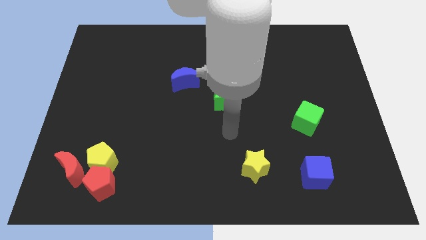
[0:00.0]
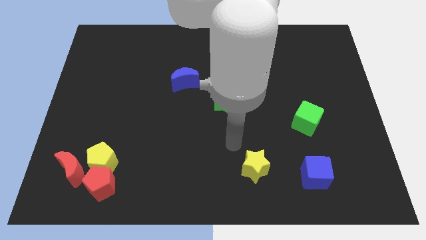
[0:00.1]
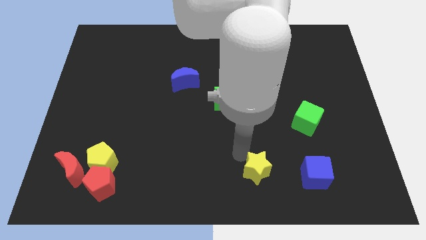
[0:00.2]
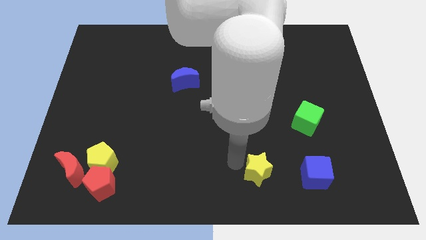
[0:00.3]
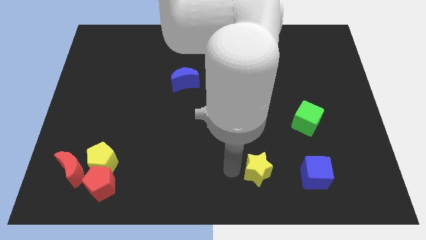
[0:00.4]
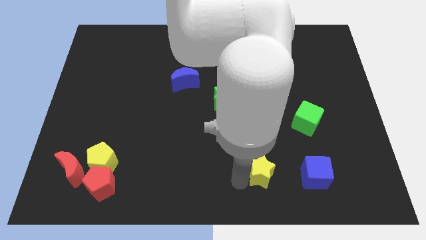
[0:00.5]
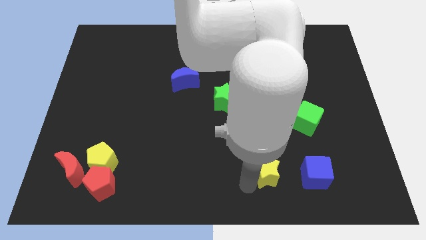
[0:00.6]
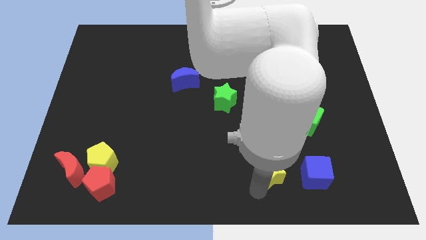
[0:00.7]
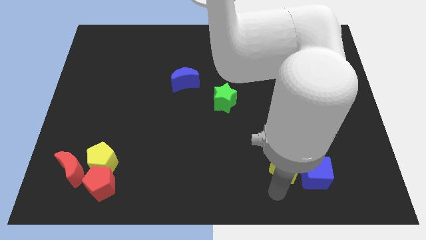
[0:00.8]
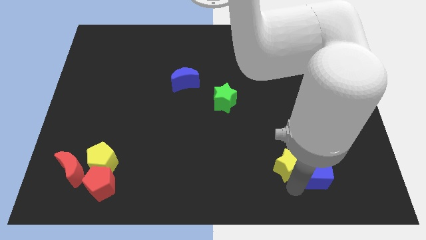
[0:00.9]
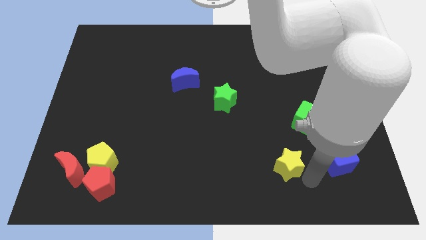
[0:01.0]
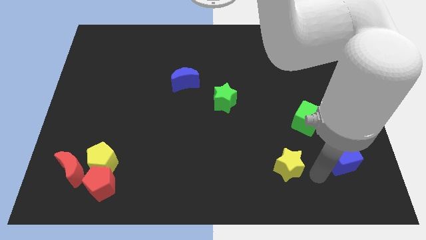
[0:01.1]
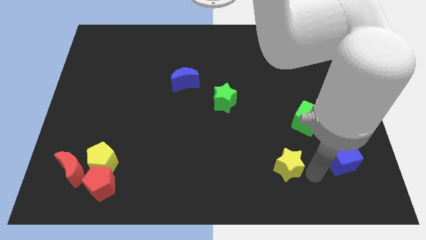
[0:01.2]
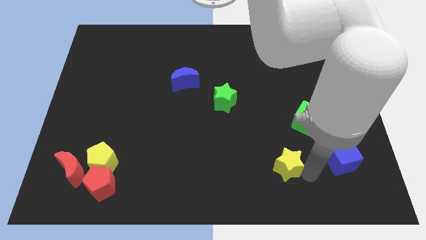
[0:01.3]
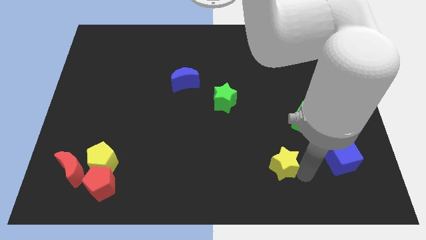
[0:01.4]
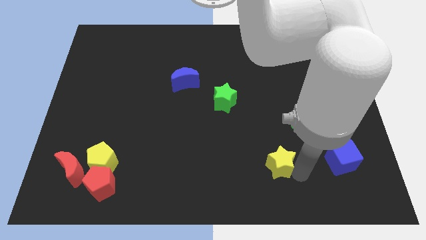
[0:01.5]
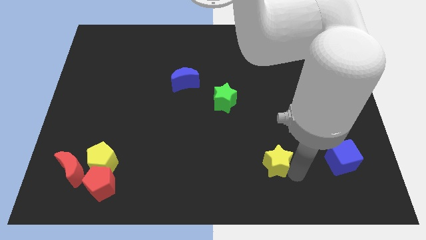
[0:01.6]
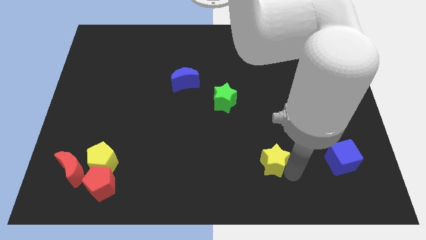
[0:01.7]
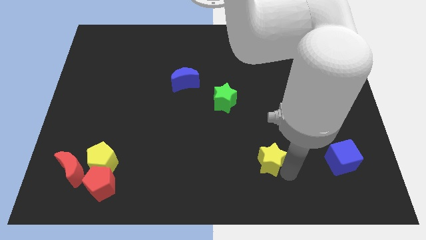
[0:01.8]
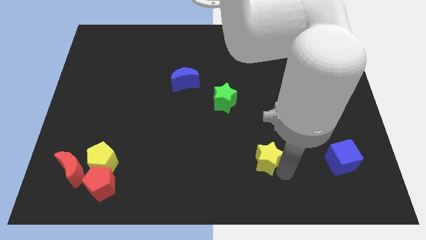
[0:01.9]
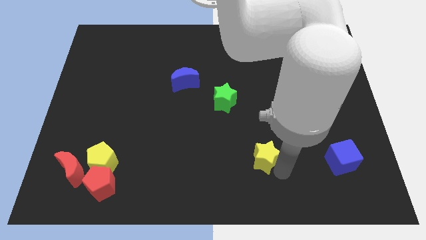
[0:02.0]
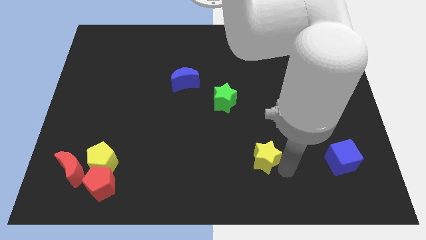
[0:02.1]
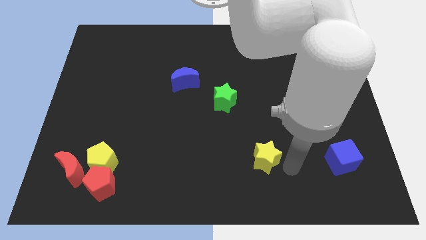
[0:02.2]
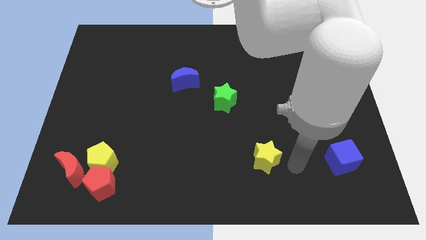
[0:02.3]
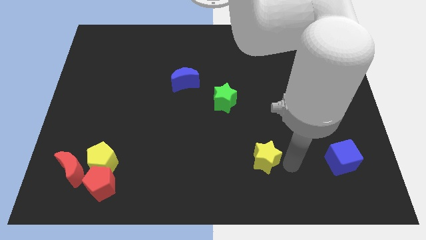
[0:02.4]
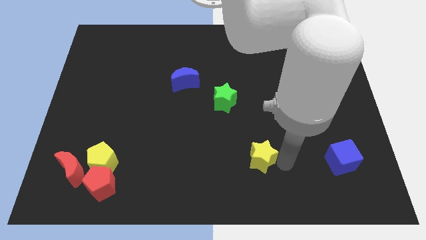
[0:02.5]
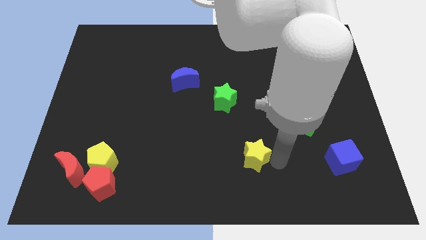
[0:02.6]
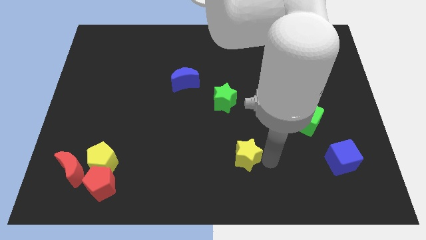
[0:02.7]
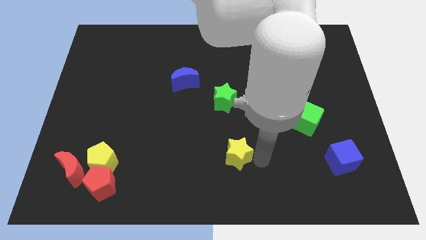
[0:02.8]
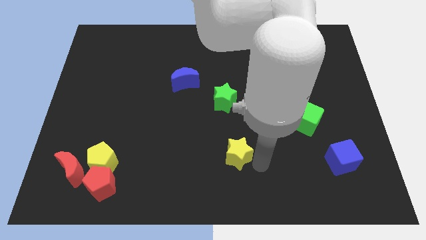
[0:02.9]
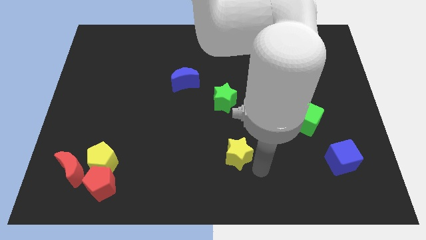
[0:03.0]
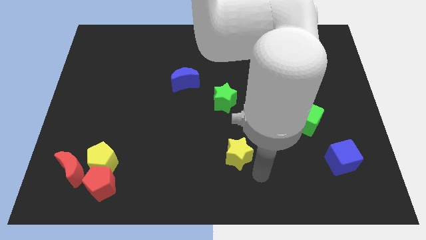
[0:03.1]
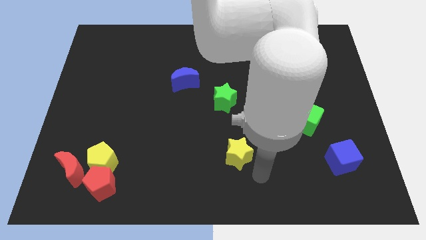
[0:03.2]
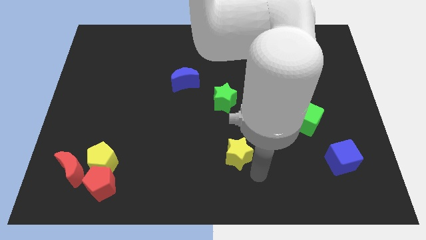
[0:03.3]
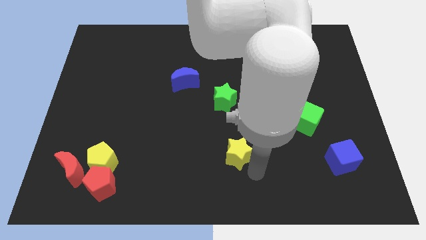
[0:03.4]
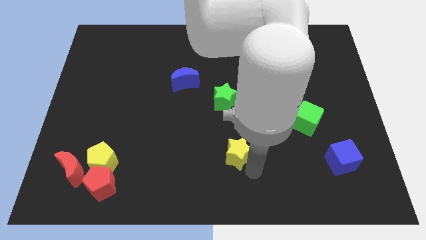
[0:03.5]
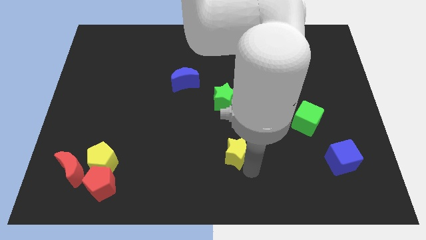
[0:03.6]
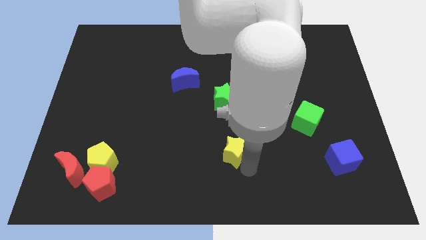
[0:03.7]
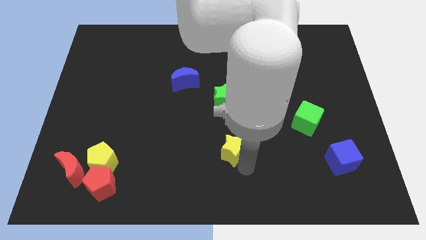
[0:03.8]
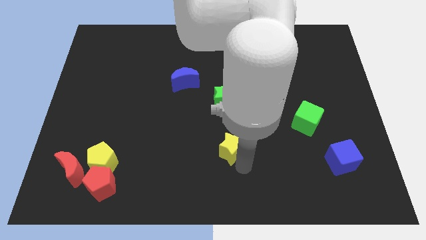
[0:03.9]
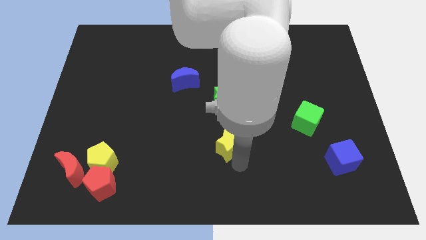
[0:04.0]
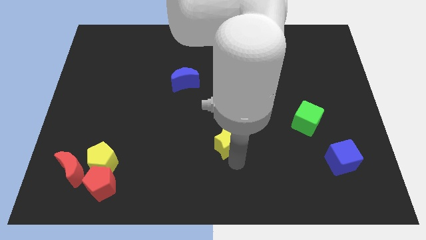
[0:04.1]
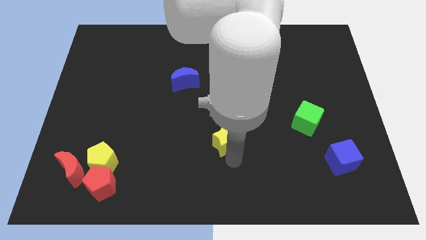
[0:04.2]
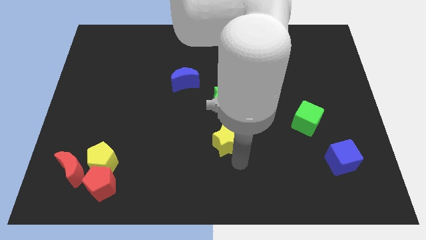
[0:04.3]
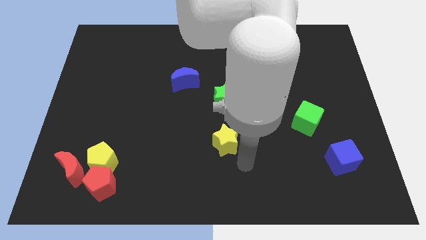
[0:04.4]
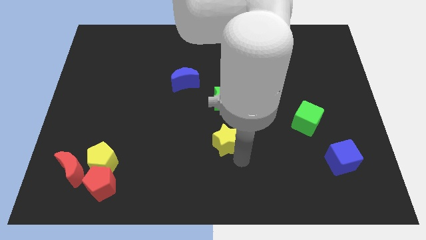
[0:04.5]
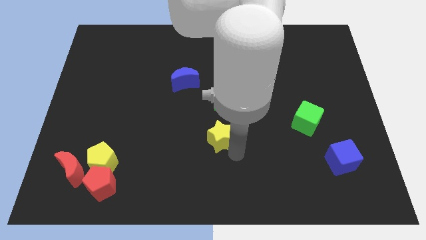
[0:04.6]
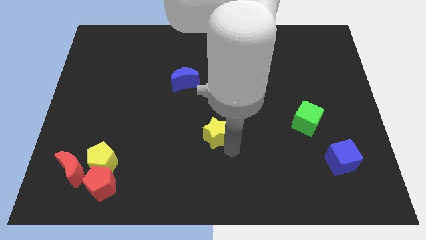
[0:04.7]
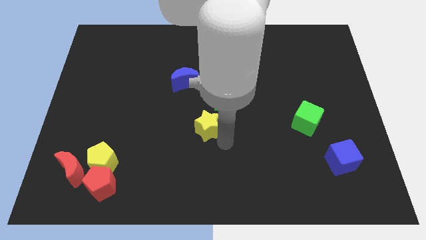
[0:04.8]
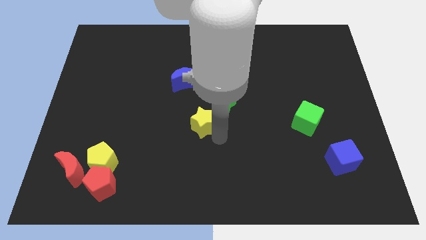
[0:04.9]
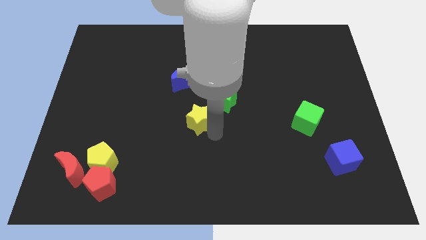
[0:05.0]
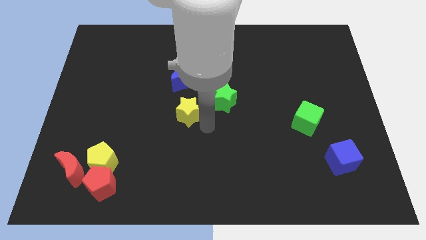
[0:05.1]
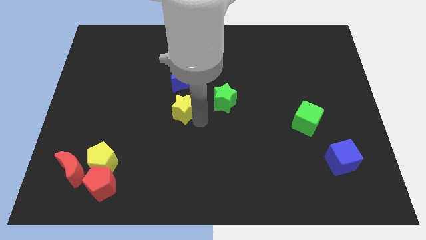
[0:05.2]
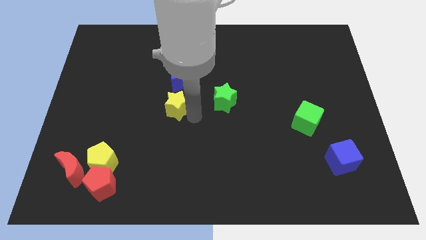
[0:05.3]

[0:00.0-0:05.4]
put the yellow star to the bottom left of the blue moon
